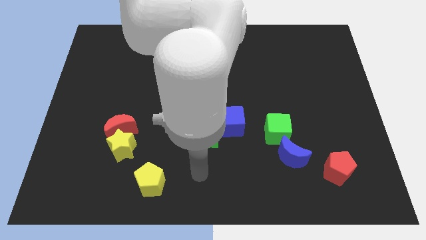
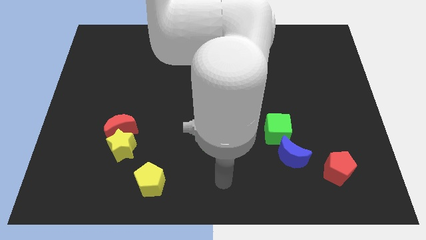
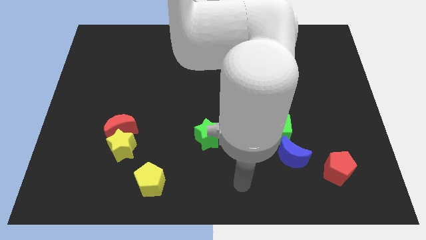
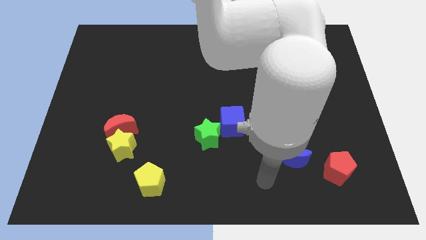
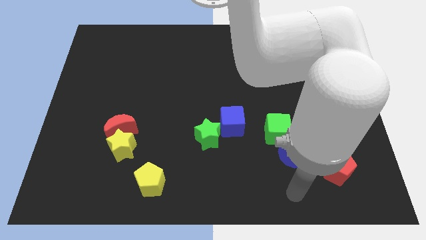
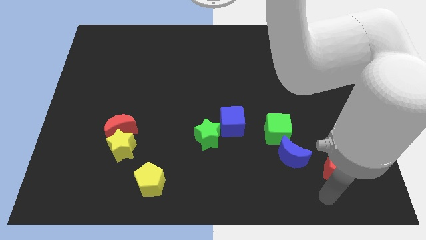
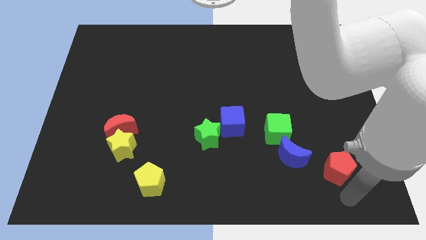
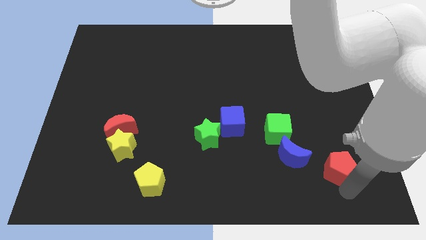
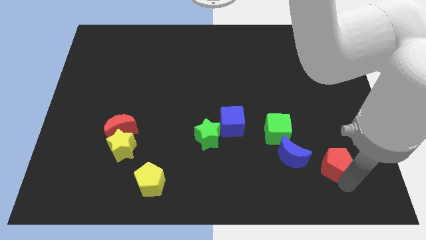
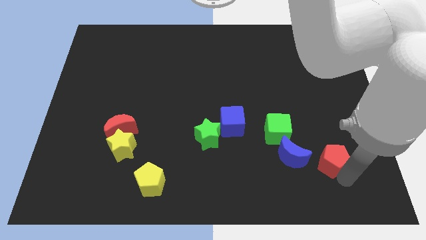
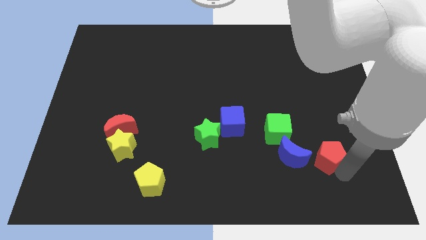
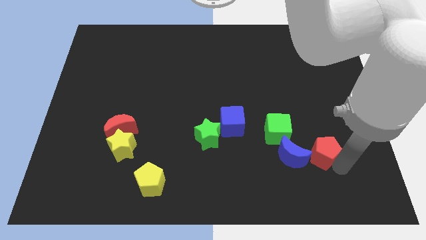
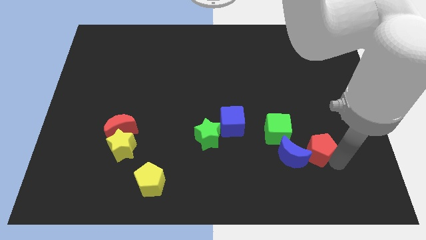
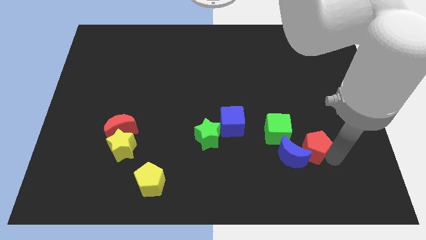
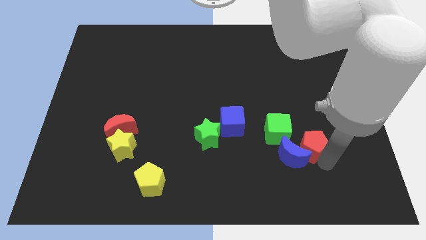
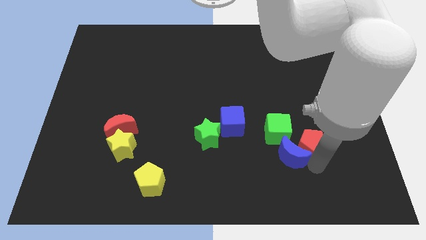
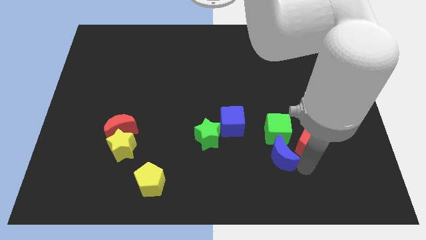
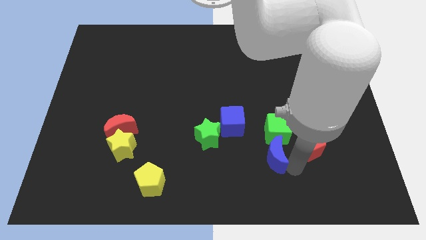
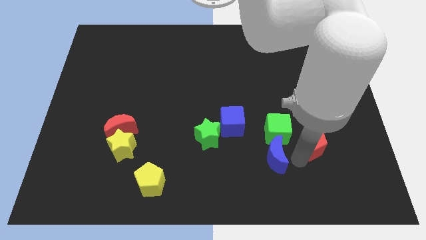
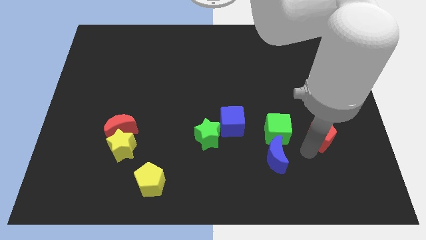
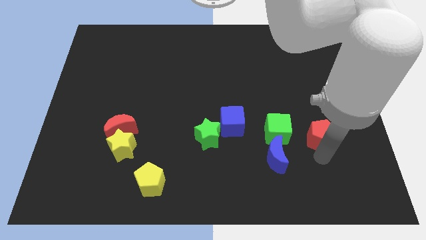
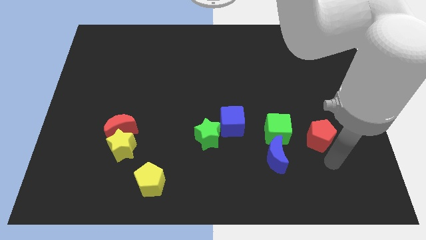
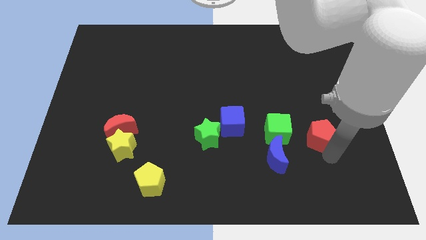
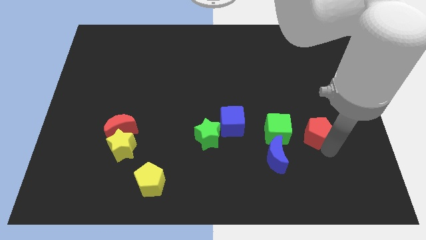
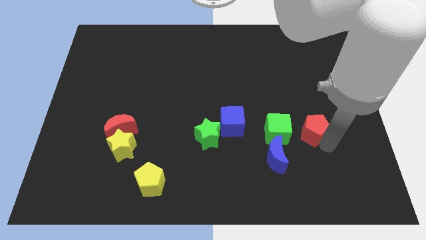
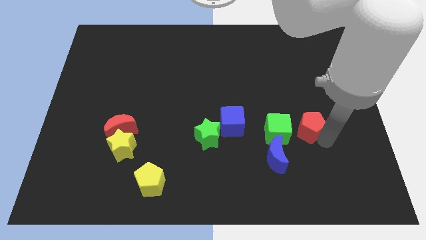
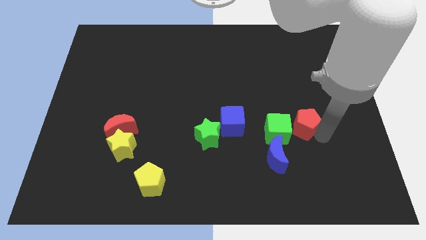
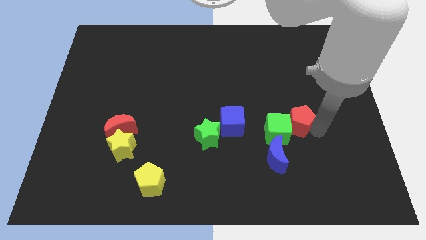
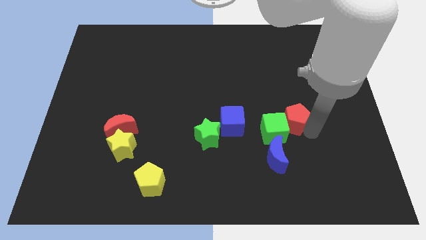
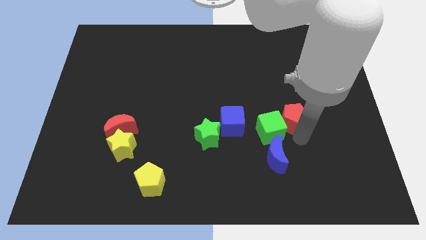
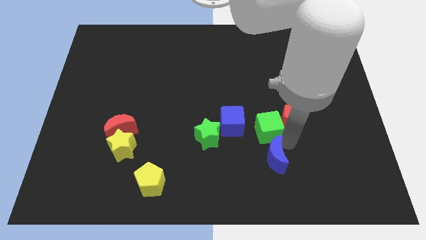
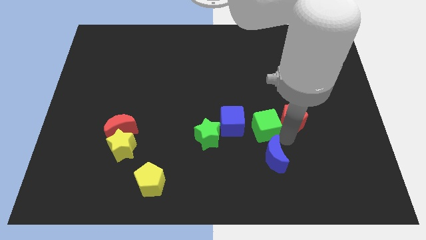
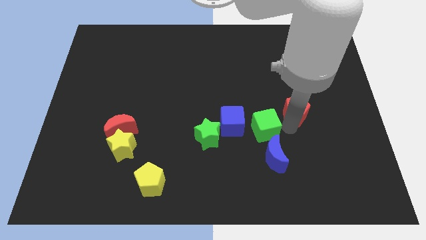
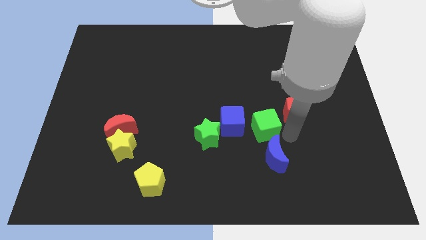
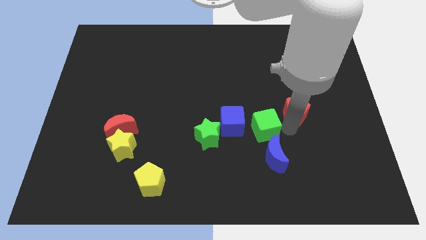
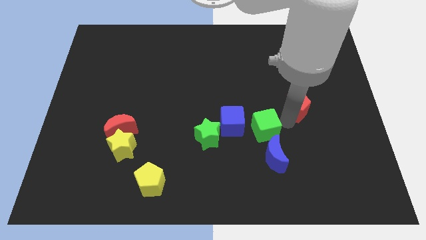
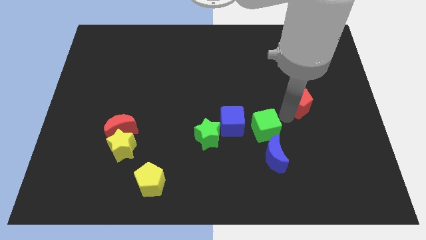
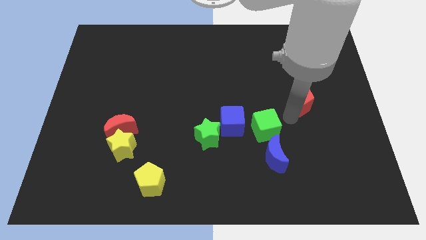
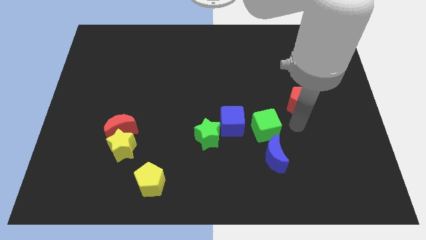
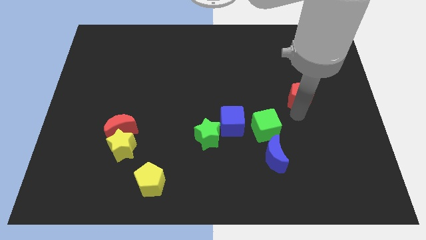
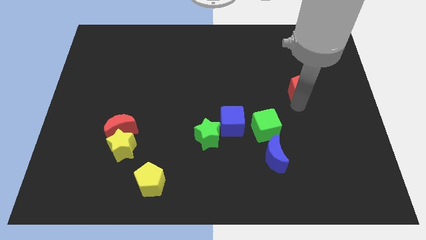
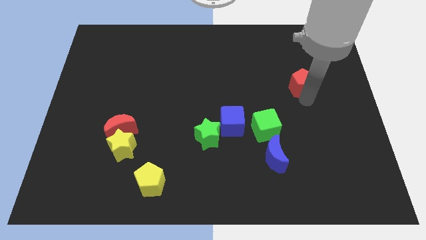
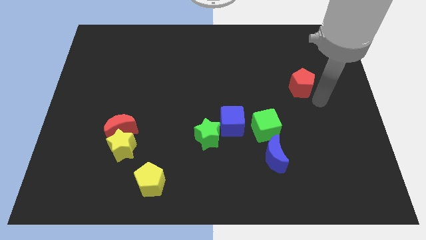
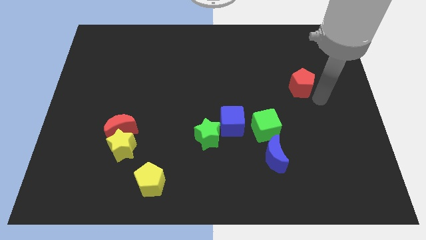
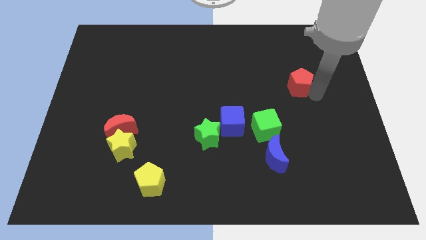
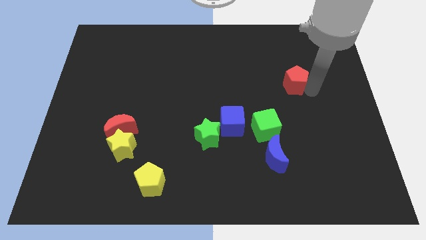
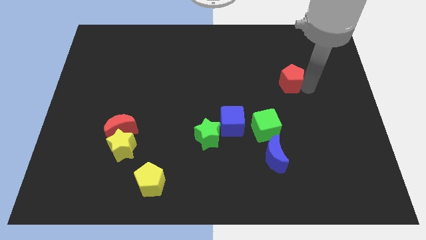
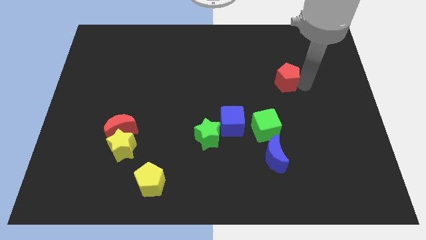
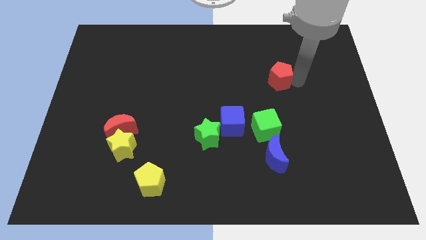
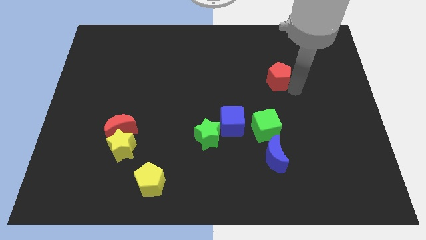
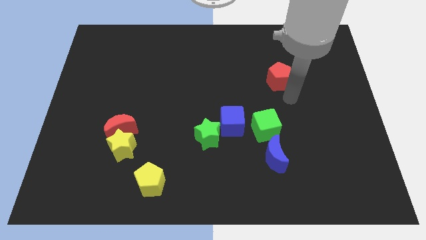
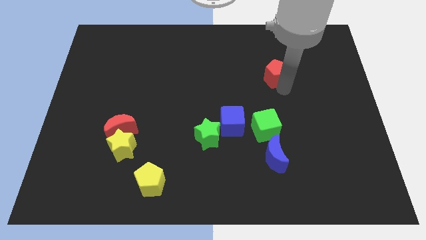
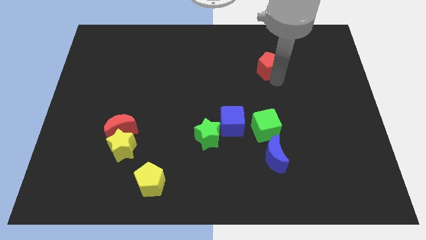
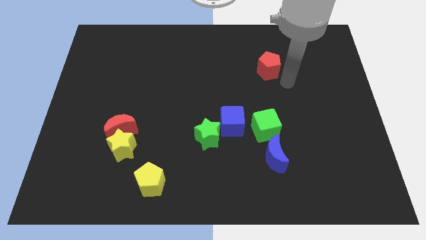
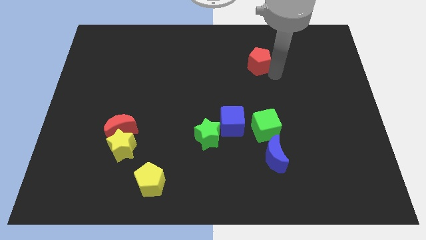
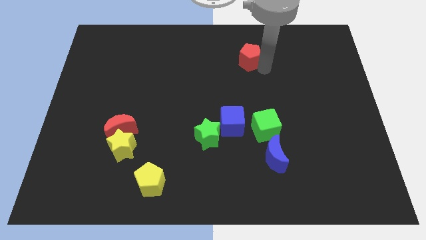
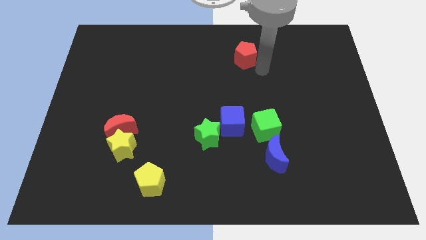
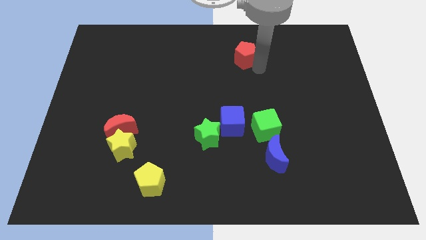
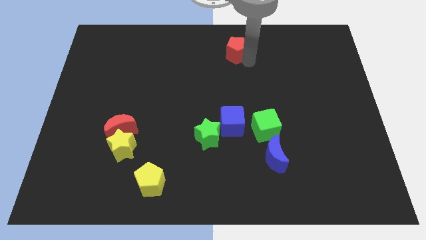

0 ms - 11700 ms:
slide the red pentagon to the top
